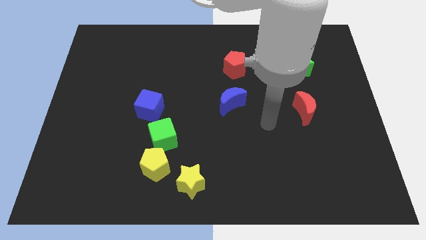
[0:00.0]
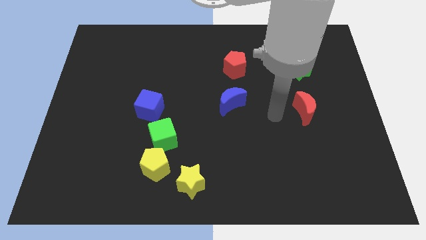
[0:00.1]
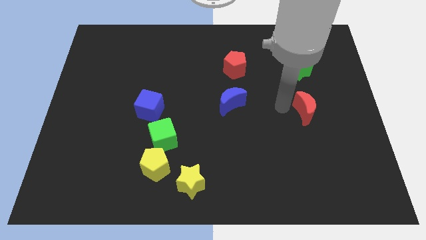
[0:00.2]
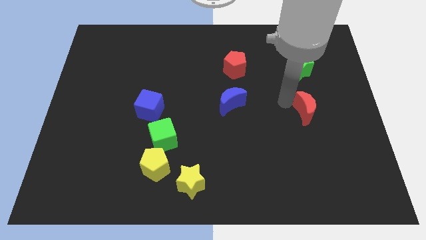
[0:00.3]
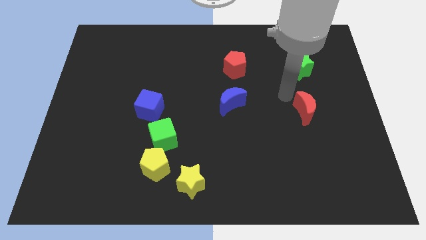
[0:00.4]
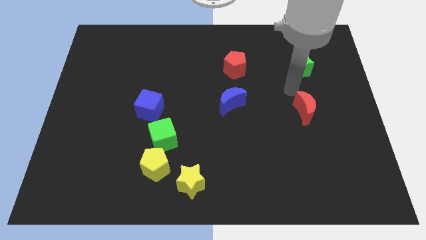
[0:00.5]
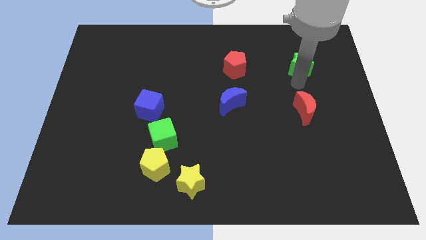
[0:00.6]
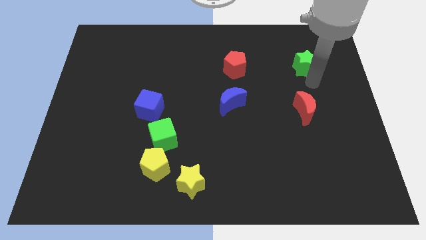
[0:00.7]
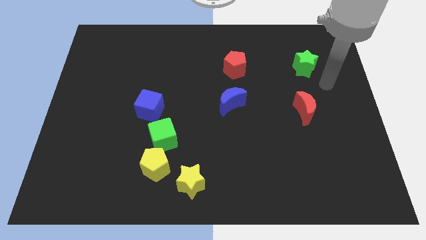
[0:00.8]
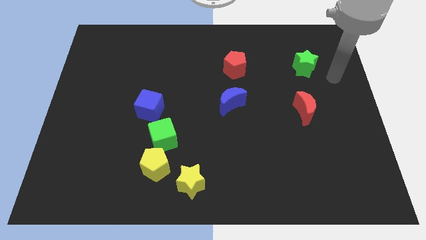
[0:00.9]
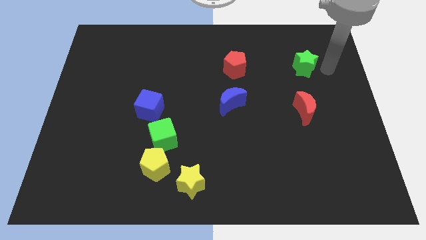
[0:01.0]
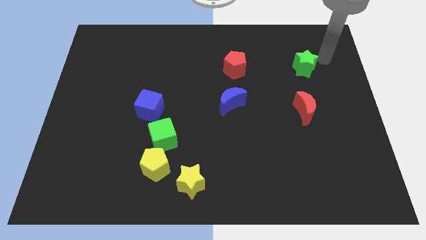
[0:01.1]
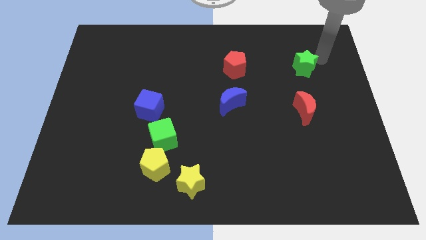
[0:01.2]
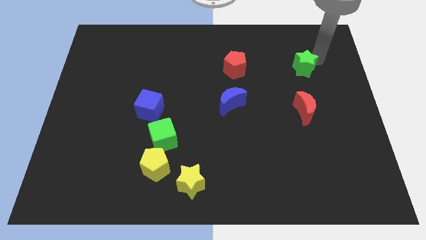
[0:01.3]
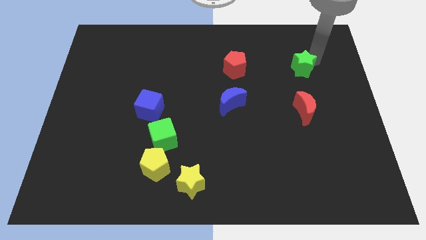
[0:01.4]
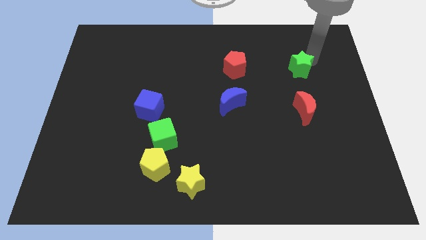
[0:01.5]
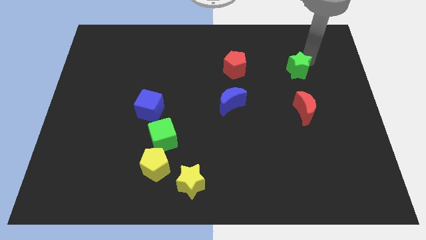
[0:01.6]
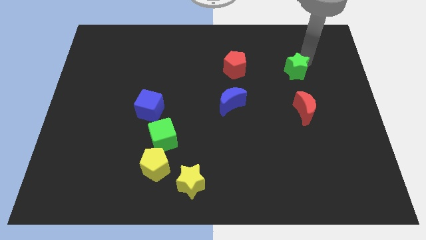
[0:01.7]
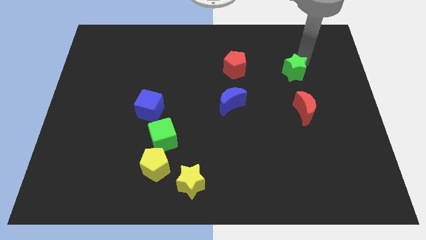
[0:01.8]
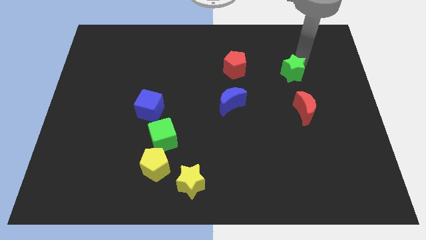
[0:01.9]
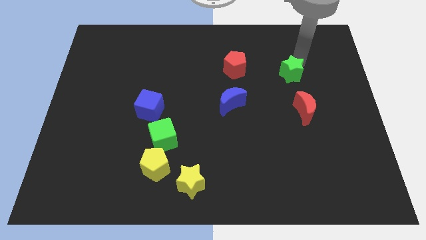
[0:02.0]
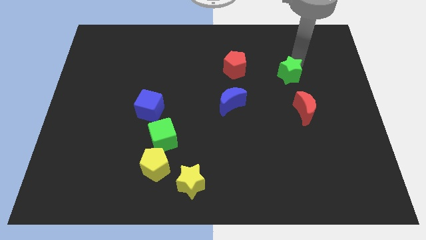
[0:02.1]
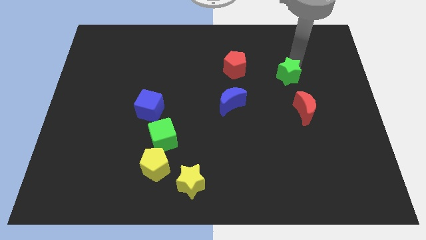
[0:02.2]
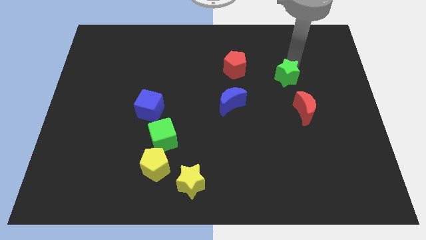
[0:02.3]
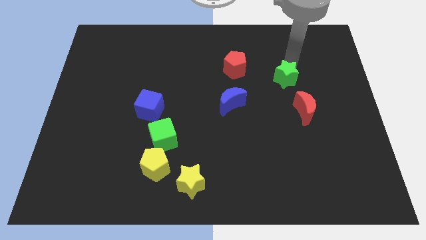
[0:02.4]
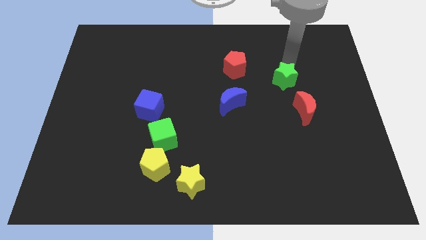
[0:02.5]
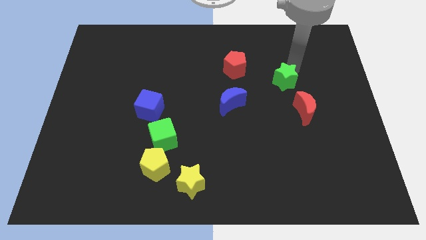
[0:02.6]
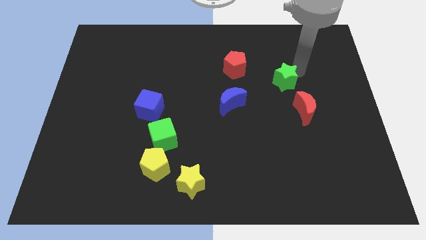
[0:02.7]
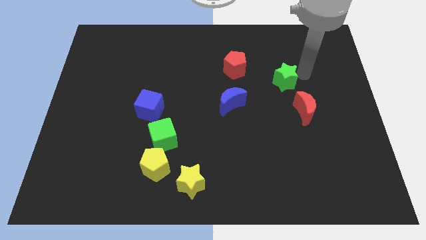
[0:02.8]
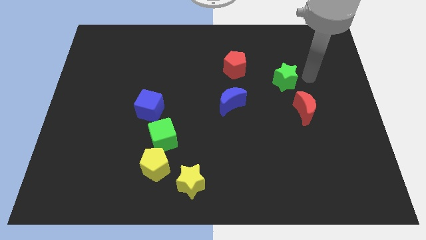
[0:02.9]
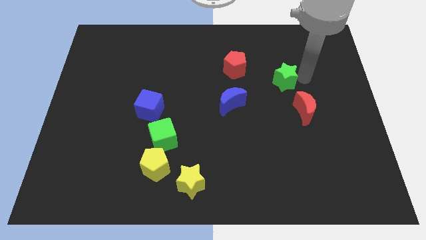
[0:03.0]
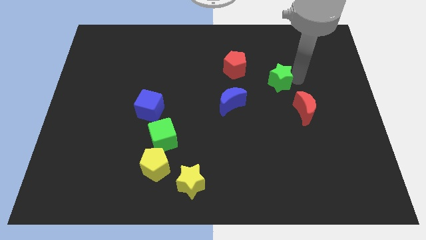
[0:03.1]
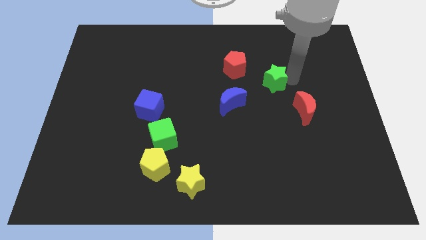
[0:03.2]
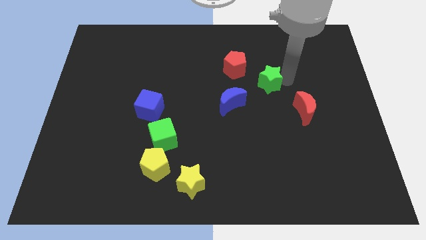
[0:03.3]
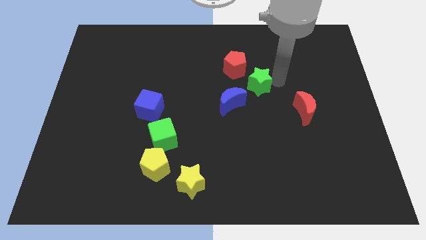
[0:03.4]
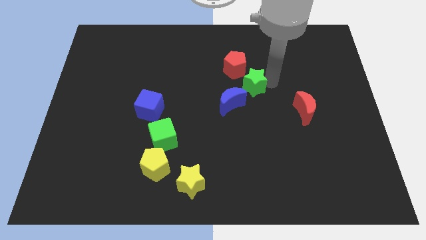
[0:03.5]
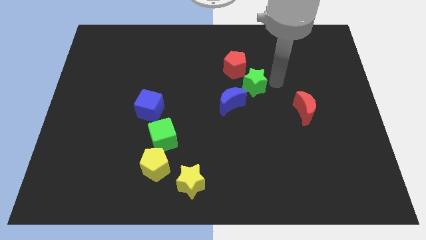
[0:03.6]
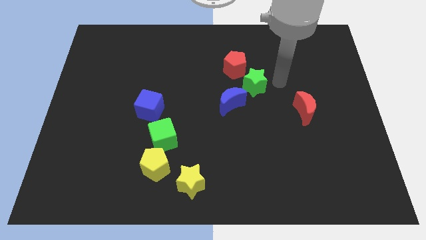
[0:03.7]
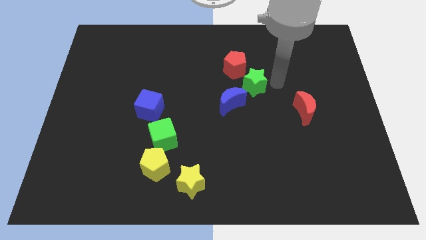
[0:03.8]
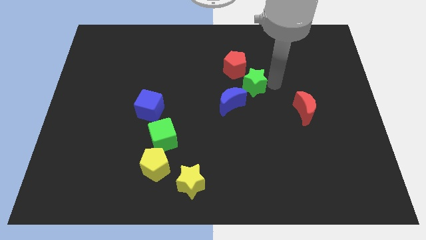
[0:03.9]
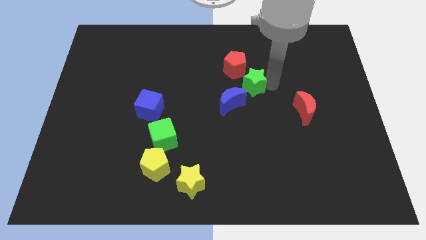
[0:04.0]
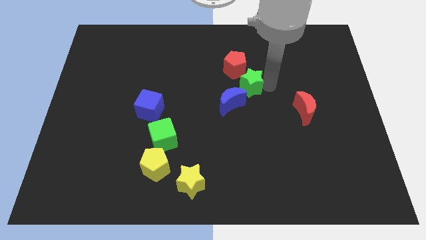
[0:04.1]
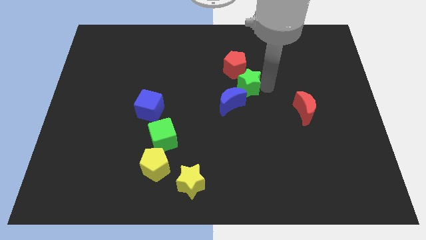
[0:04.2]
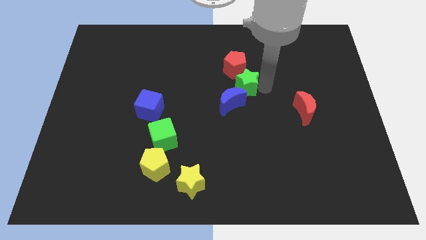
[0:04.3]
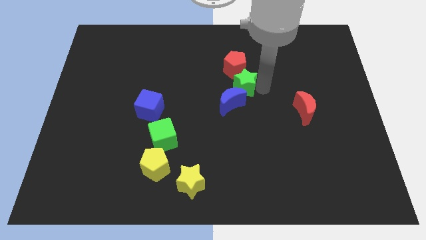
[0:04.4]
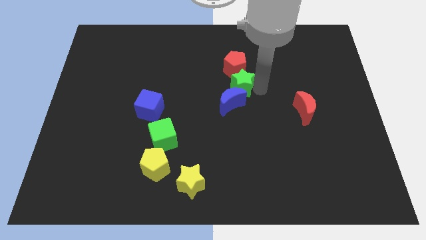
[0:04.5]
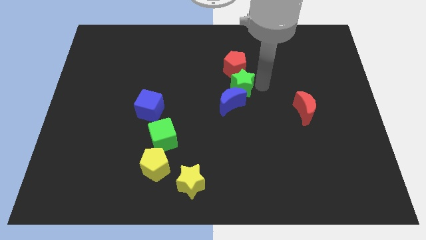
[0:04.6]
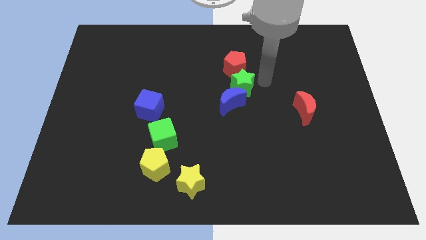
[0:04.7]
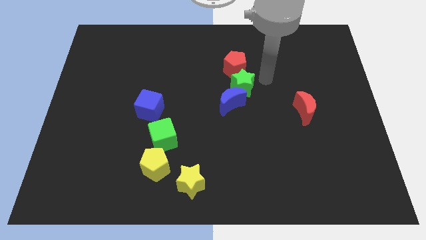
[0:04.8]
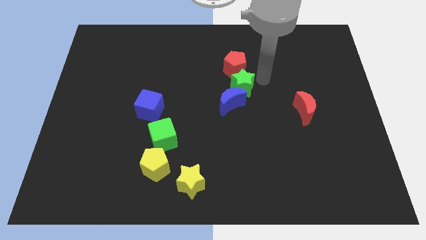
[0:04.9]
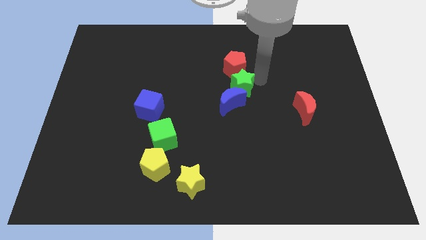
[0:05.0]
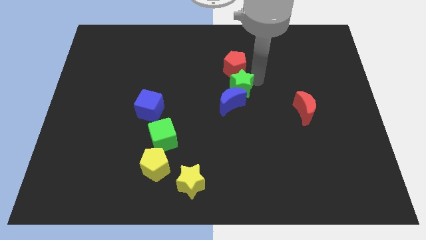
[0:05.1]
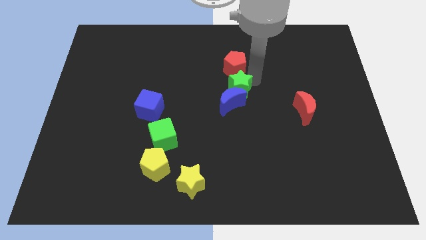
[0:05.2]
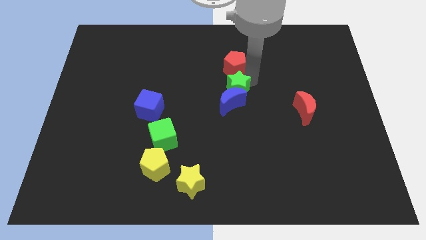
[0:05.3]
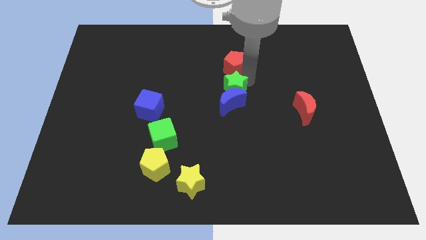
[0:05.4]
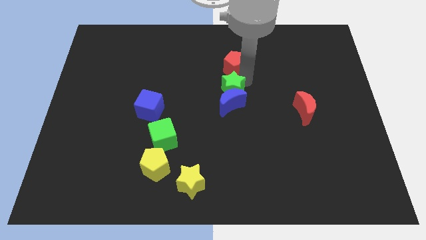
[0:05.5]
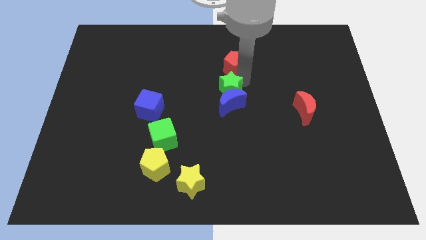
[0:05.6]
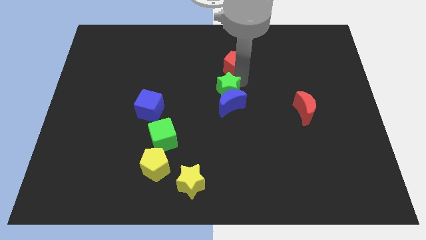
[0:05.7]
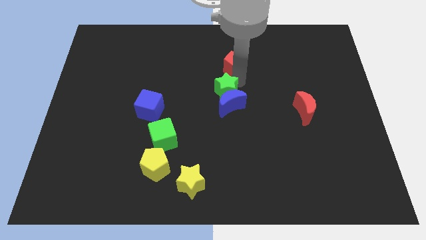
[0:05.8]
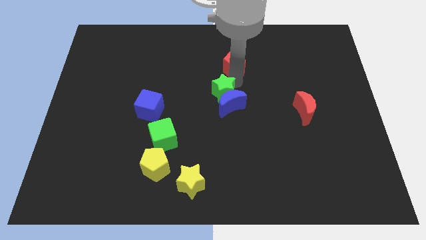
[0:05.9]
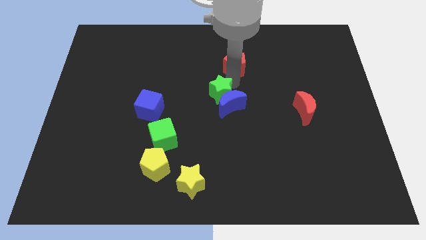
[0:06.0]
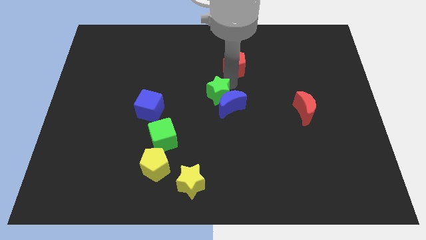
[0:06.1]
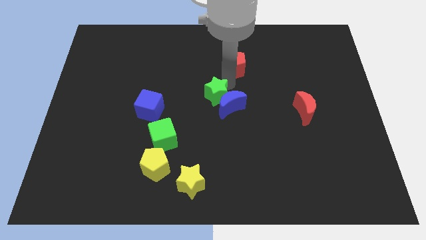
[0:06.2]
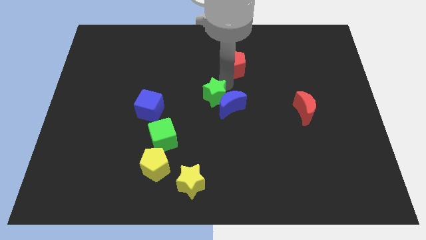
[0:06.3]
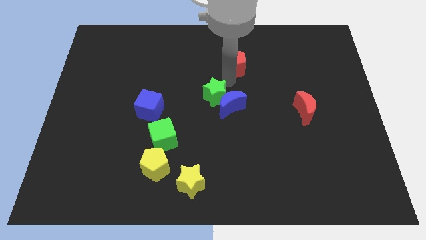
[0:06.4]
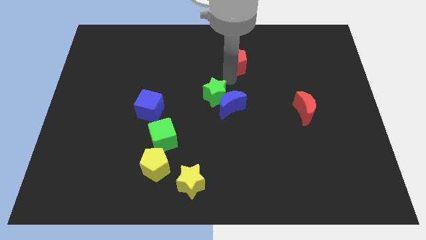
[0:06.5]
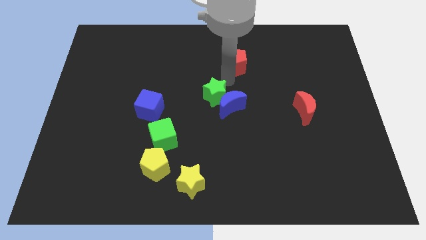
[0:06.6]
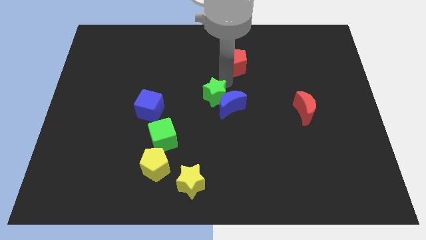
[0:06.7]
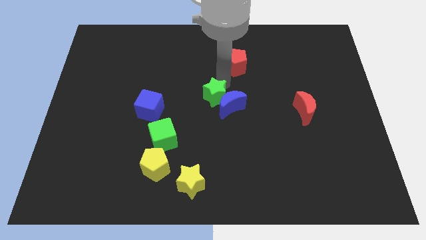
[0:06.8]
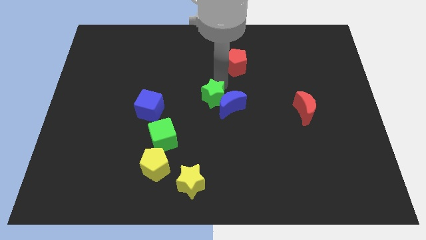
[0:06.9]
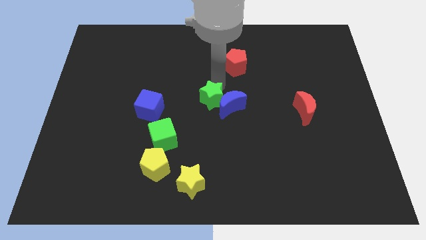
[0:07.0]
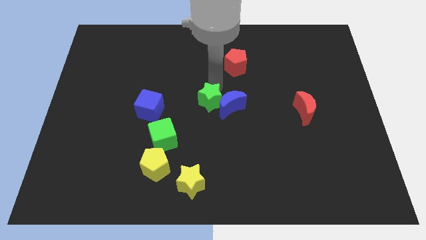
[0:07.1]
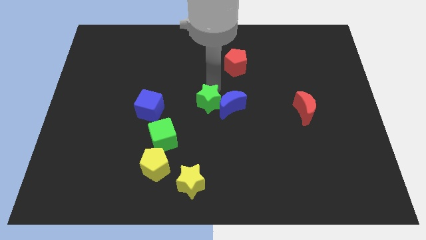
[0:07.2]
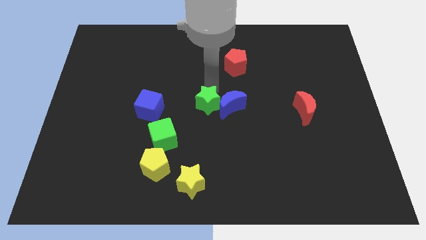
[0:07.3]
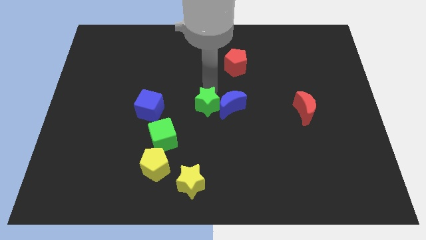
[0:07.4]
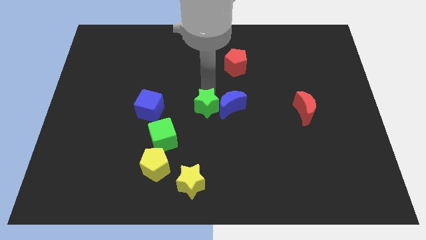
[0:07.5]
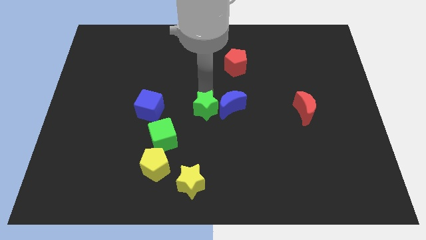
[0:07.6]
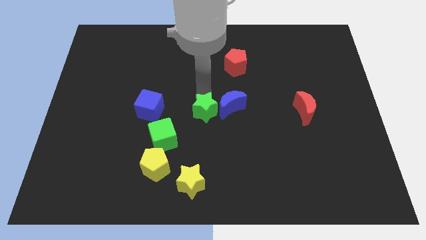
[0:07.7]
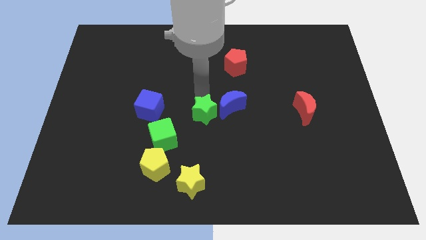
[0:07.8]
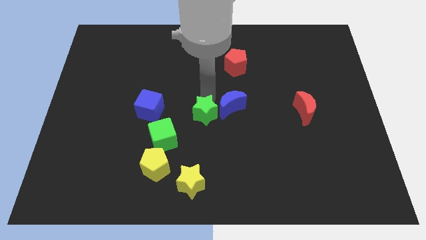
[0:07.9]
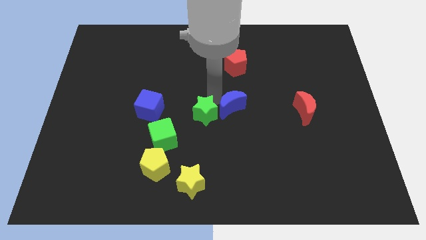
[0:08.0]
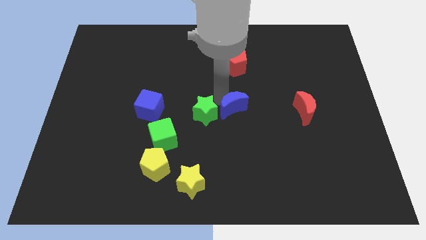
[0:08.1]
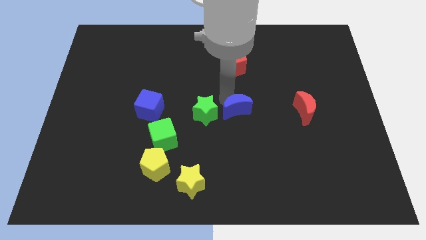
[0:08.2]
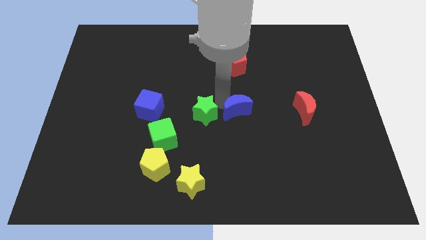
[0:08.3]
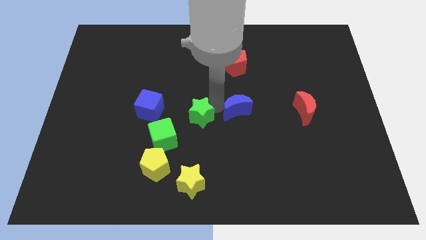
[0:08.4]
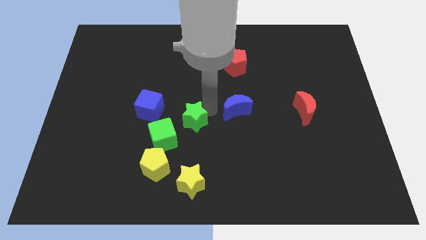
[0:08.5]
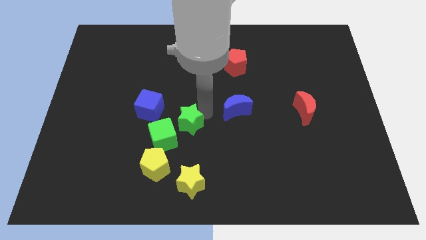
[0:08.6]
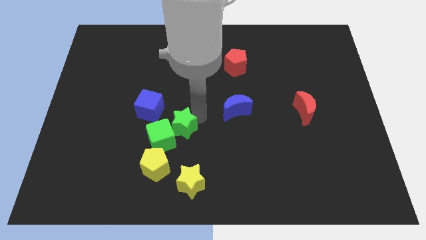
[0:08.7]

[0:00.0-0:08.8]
move the green star next to the green cube
